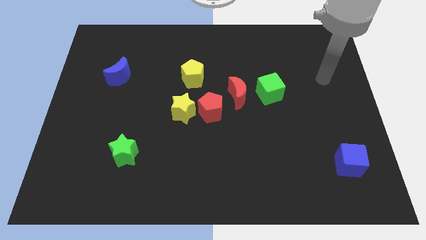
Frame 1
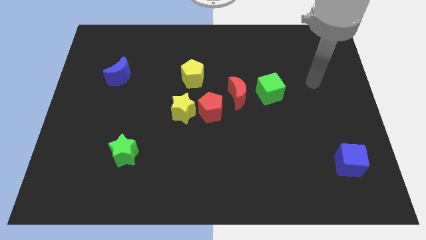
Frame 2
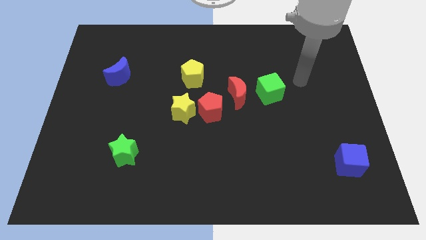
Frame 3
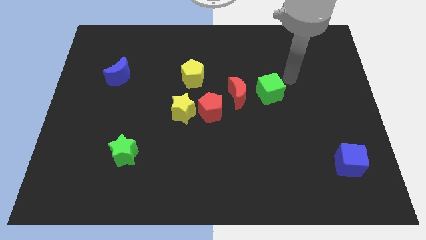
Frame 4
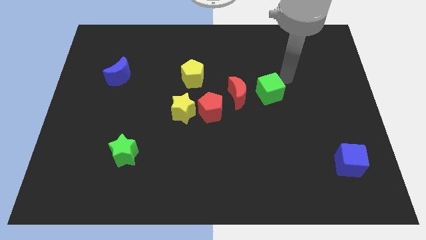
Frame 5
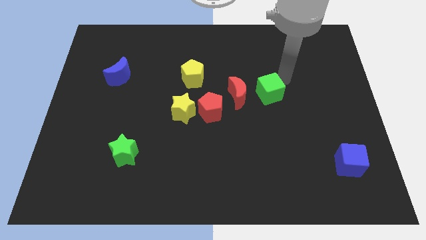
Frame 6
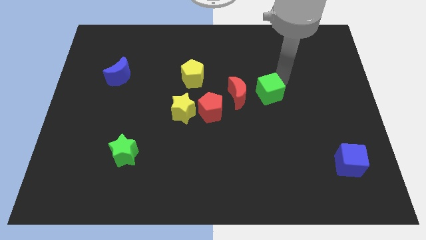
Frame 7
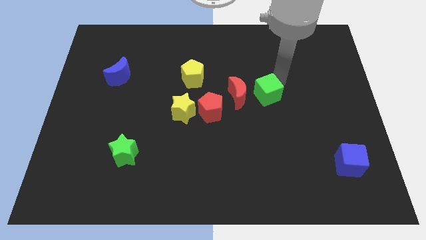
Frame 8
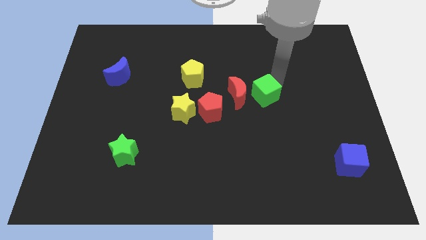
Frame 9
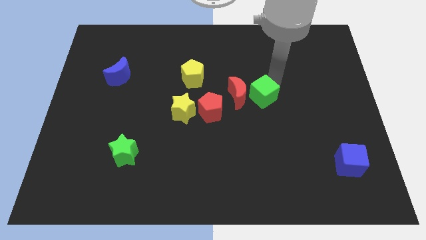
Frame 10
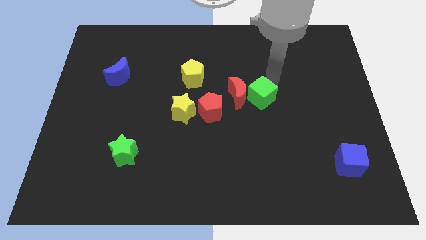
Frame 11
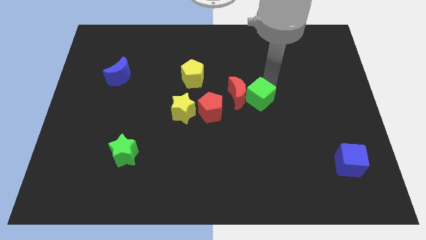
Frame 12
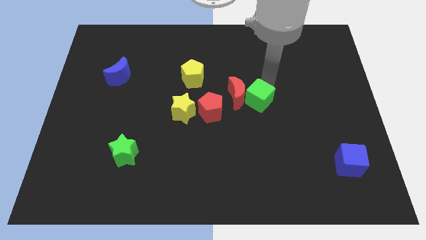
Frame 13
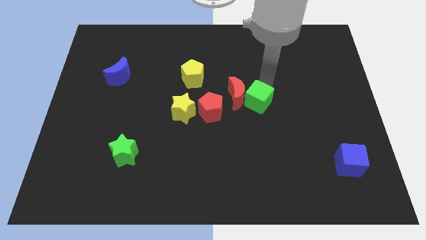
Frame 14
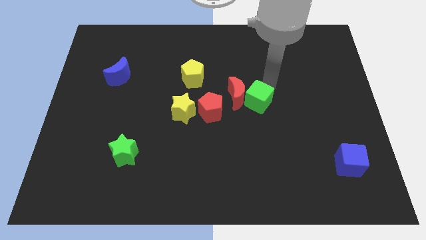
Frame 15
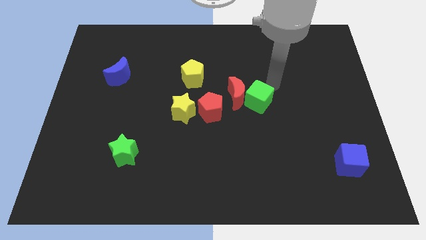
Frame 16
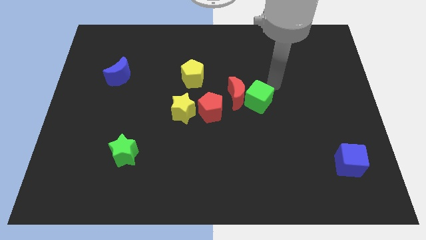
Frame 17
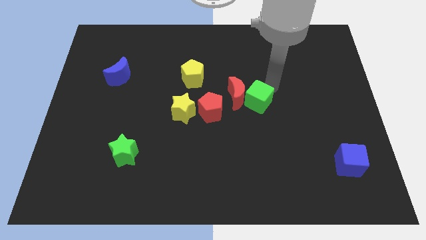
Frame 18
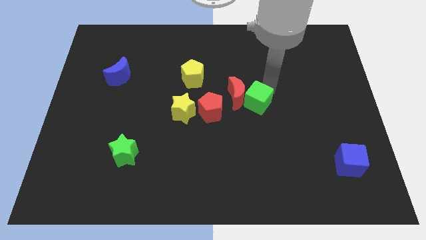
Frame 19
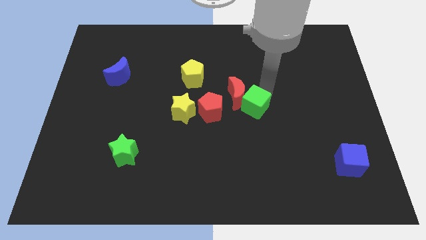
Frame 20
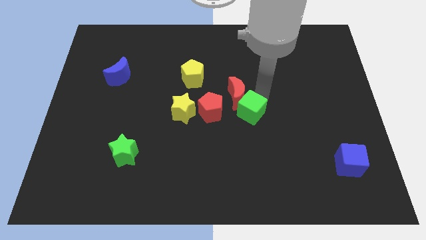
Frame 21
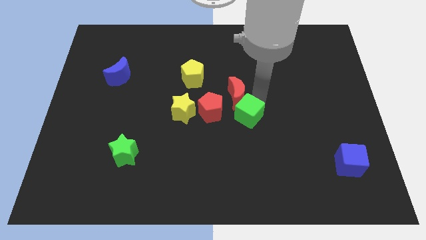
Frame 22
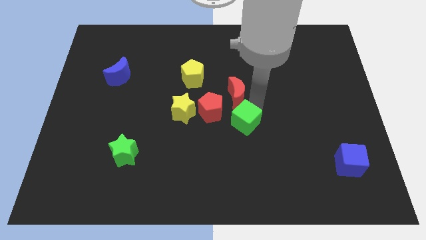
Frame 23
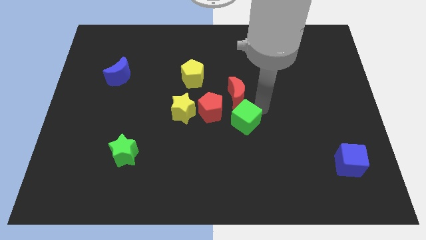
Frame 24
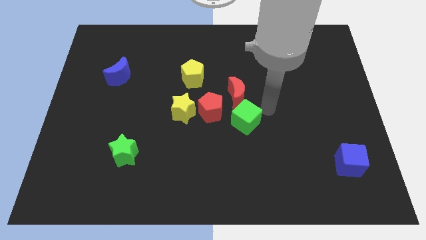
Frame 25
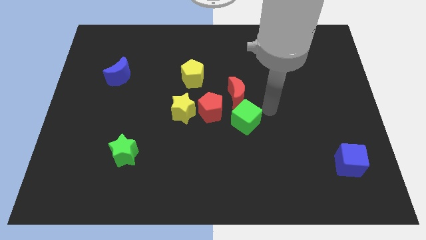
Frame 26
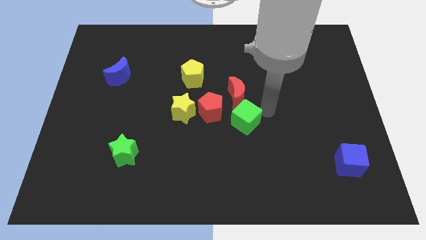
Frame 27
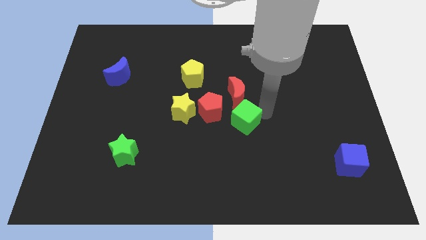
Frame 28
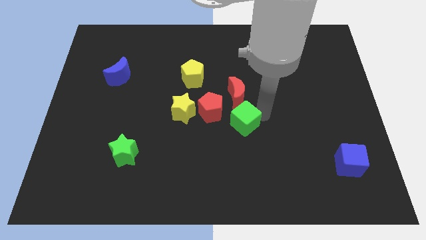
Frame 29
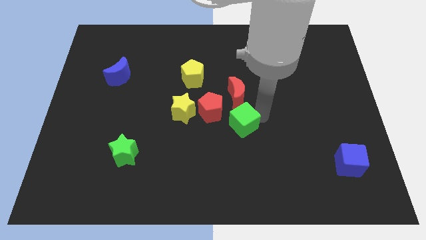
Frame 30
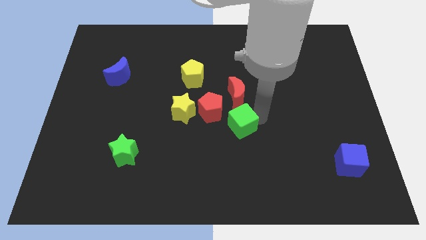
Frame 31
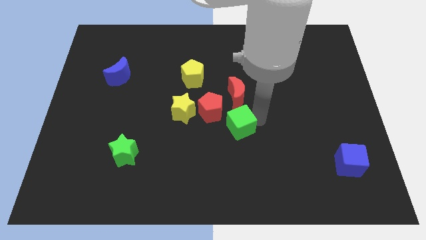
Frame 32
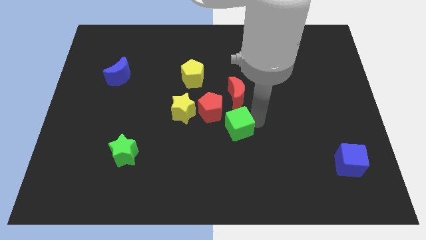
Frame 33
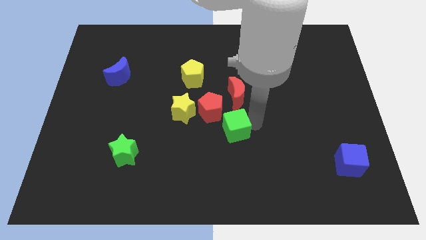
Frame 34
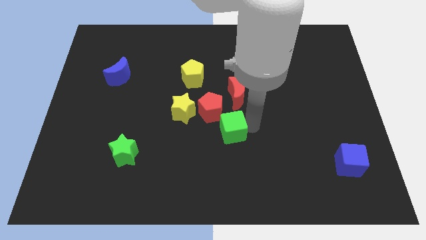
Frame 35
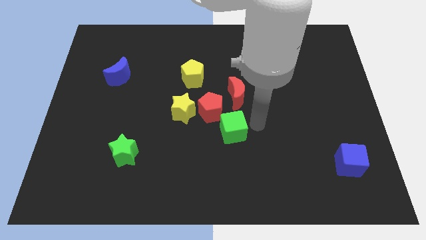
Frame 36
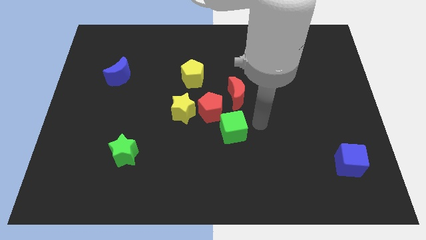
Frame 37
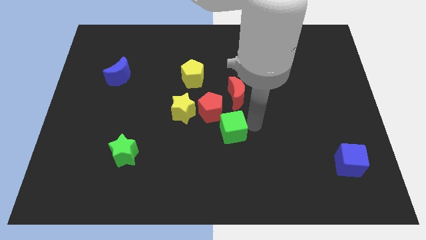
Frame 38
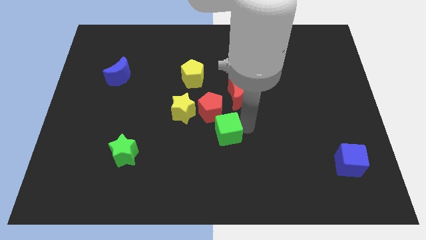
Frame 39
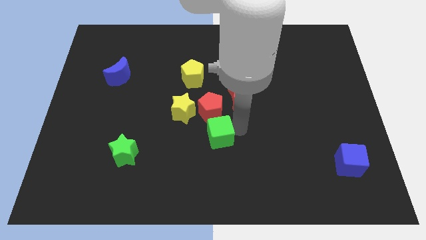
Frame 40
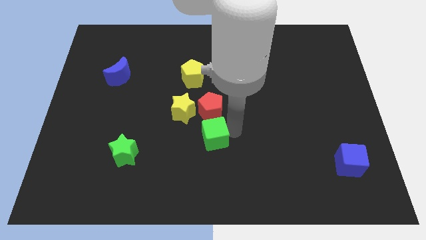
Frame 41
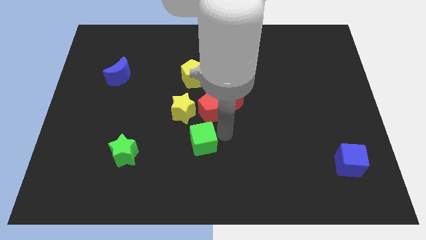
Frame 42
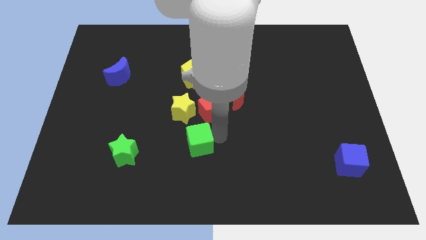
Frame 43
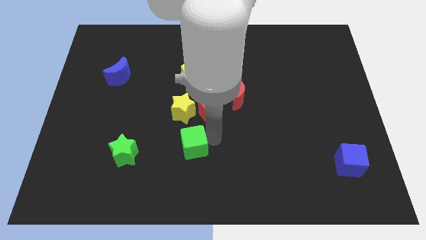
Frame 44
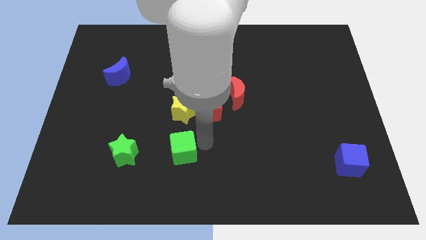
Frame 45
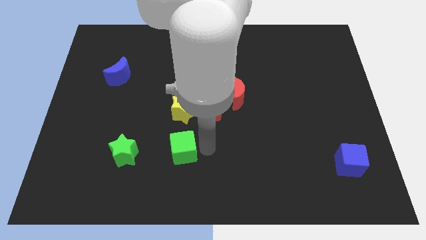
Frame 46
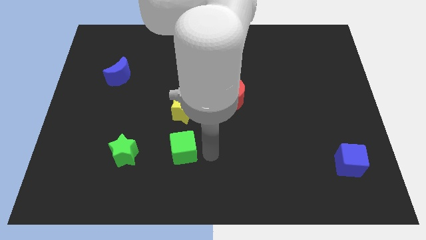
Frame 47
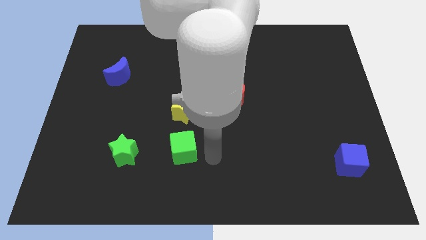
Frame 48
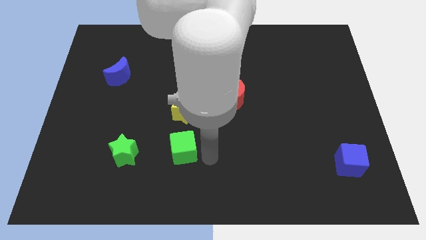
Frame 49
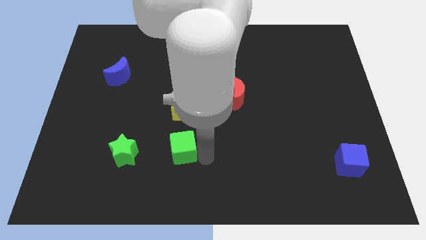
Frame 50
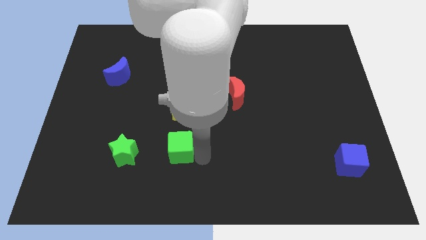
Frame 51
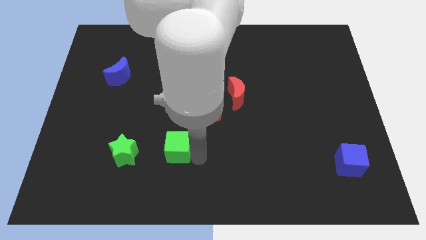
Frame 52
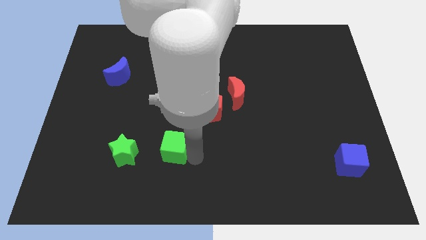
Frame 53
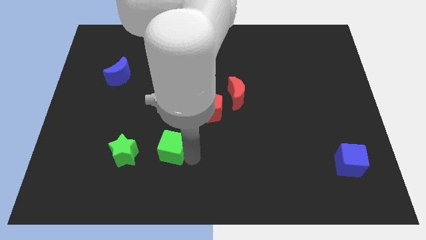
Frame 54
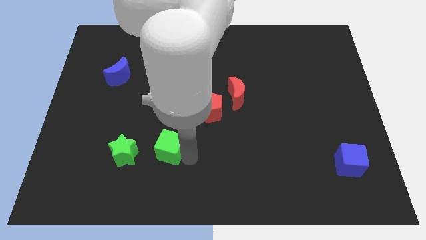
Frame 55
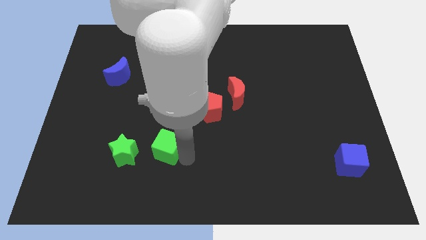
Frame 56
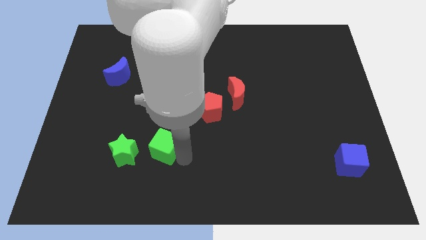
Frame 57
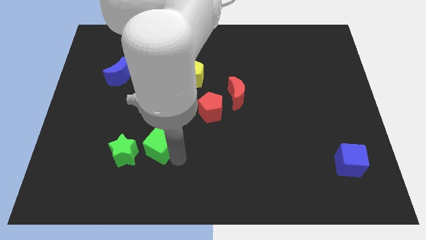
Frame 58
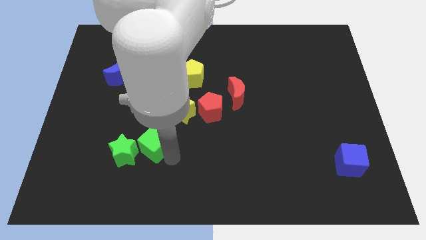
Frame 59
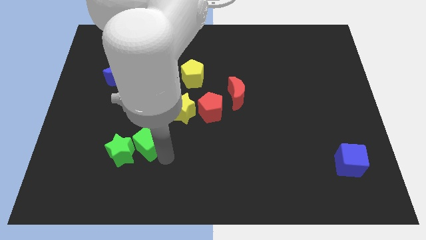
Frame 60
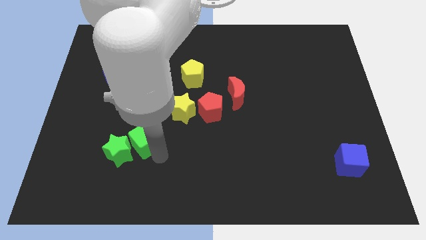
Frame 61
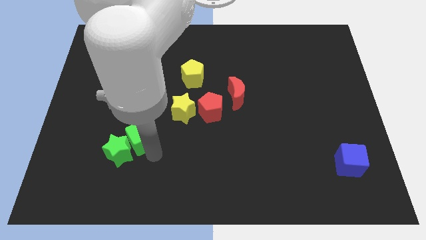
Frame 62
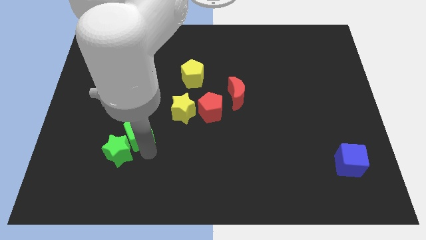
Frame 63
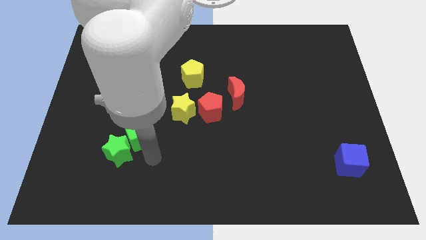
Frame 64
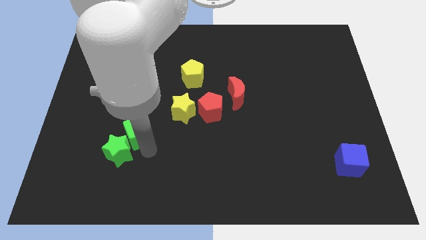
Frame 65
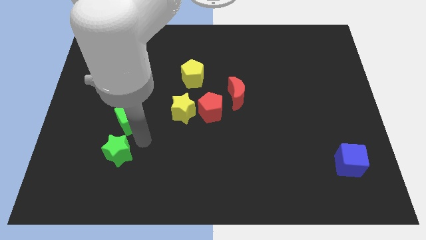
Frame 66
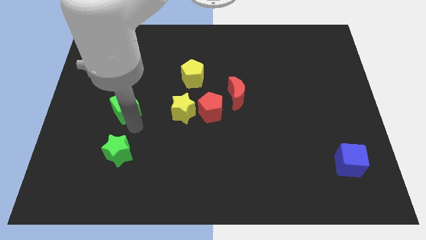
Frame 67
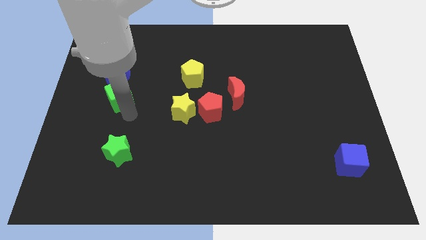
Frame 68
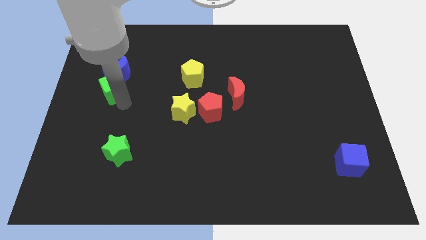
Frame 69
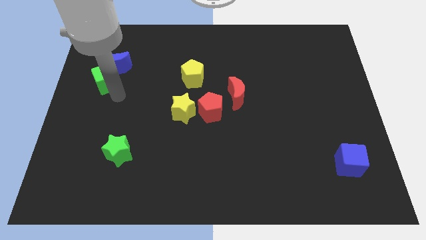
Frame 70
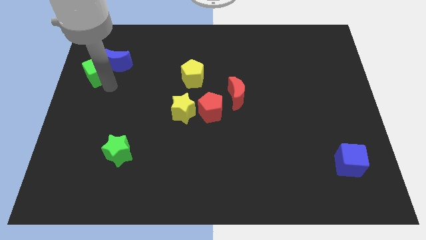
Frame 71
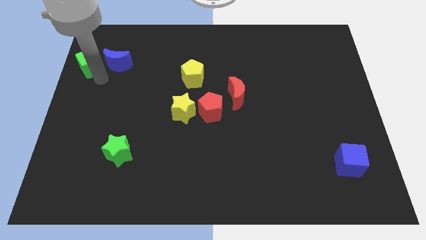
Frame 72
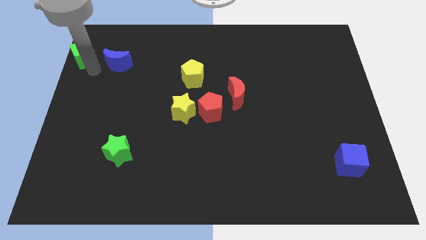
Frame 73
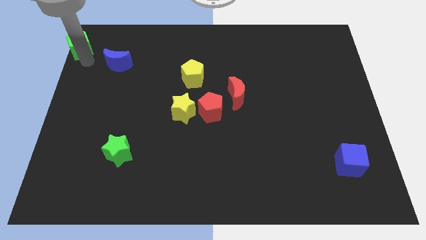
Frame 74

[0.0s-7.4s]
slide the green cube to the top left corner
